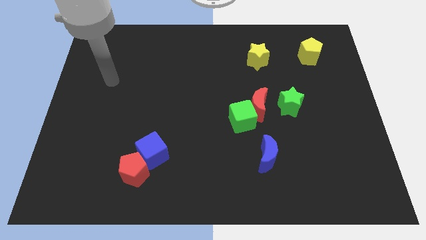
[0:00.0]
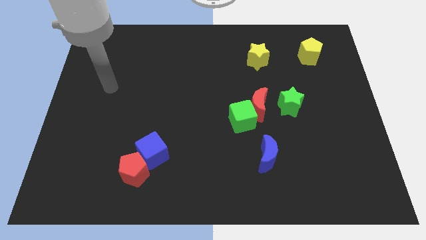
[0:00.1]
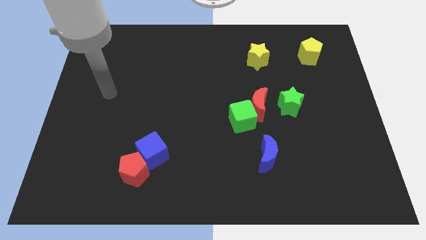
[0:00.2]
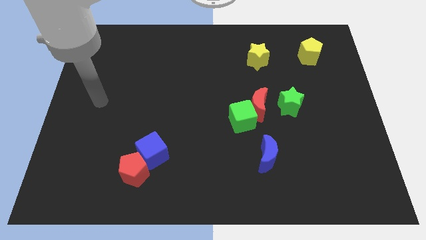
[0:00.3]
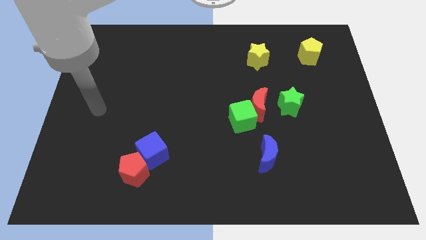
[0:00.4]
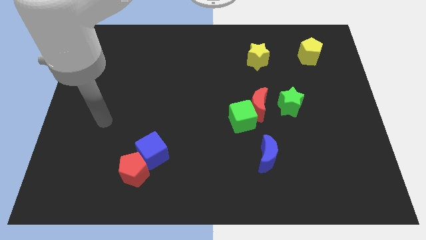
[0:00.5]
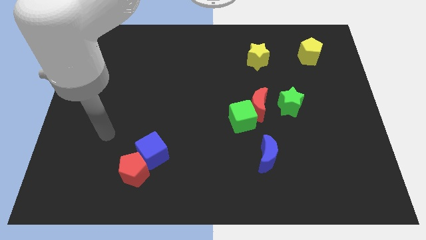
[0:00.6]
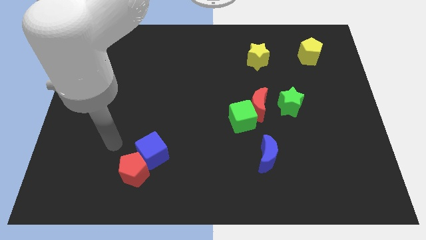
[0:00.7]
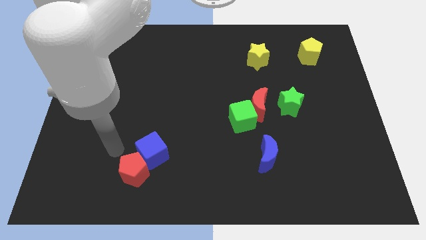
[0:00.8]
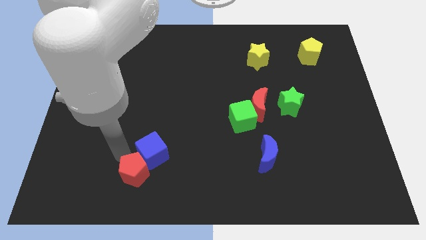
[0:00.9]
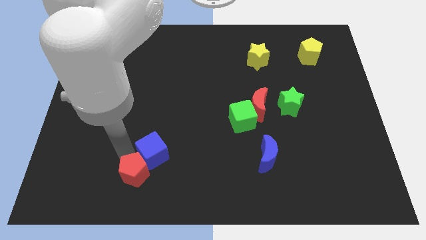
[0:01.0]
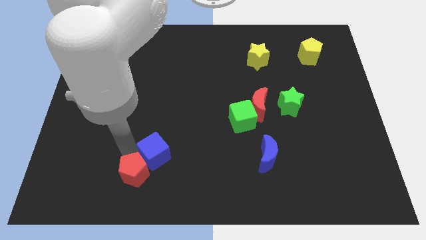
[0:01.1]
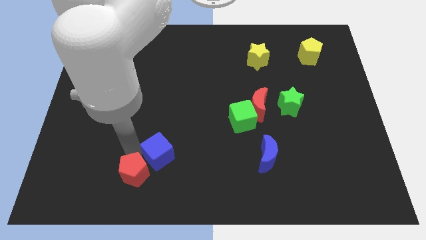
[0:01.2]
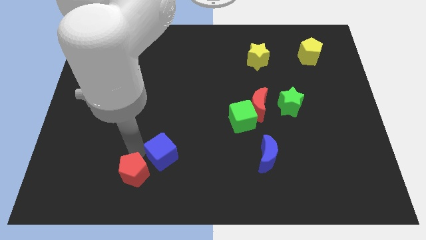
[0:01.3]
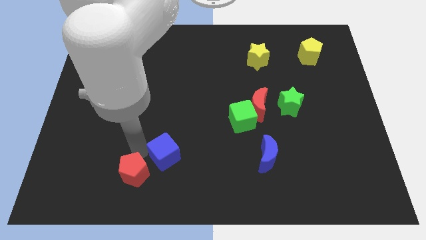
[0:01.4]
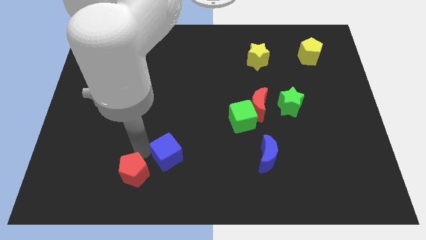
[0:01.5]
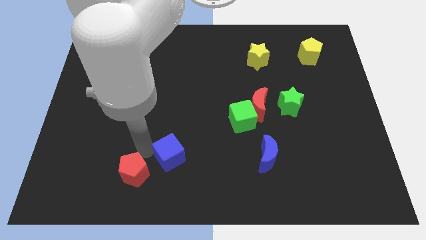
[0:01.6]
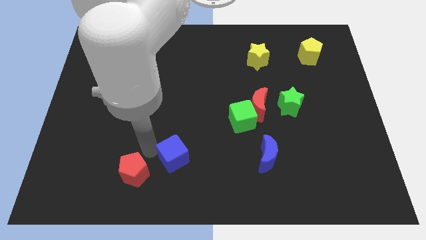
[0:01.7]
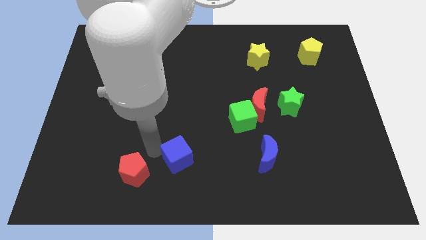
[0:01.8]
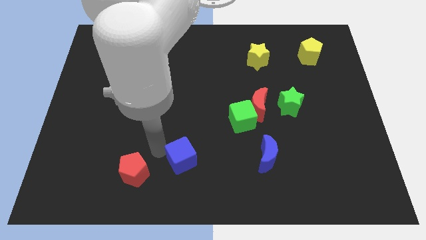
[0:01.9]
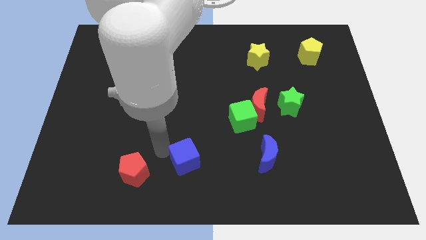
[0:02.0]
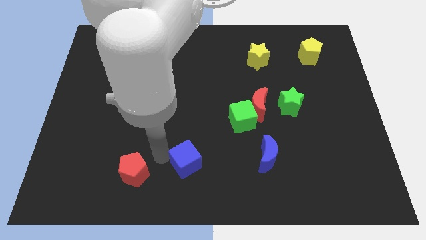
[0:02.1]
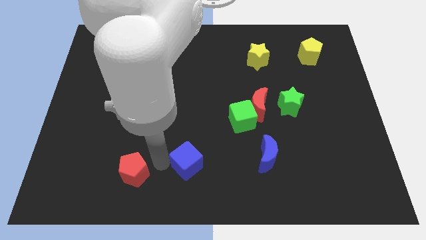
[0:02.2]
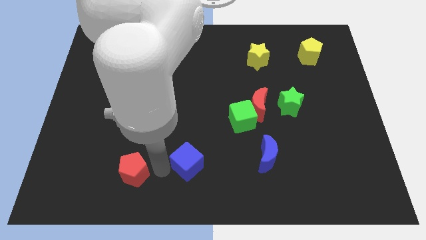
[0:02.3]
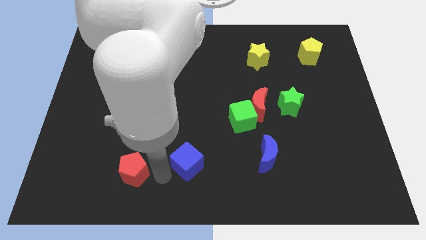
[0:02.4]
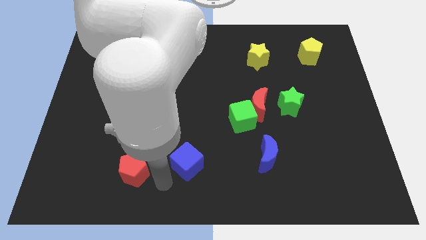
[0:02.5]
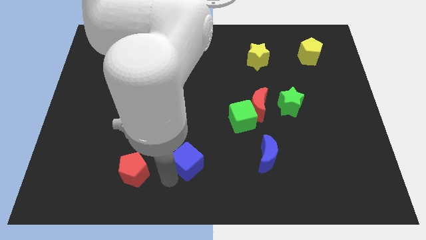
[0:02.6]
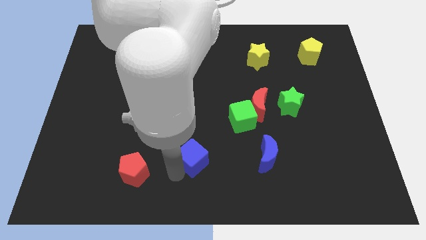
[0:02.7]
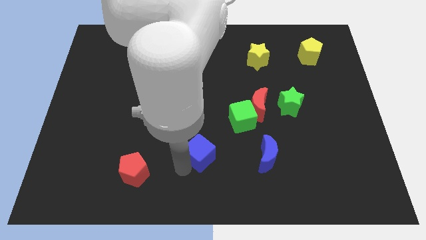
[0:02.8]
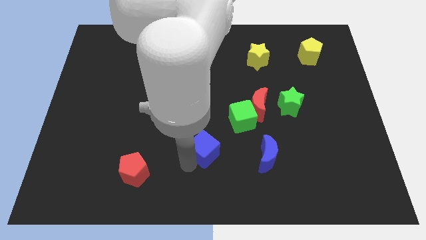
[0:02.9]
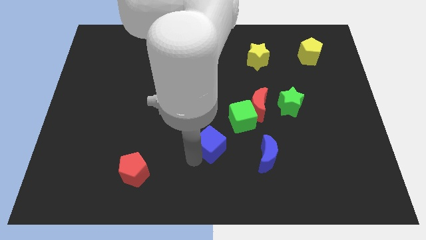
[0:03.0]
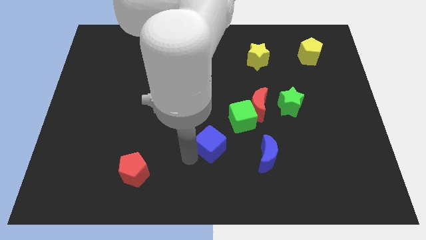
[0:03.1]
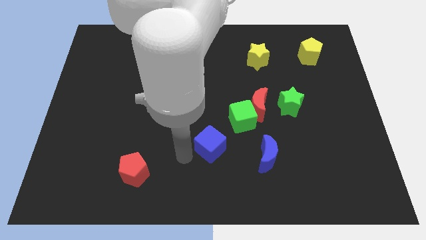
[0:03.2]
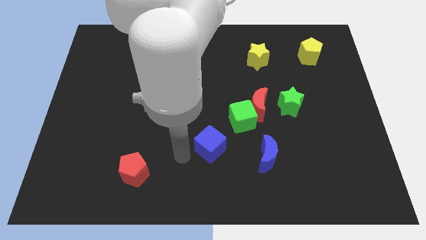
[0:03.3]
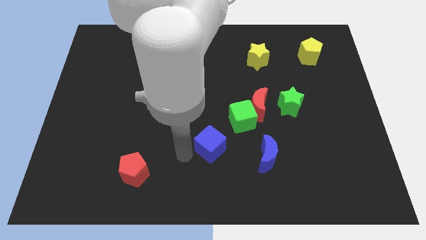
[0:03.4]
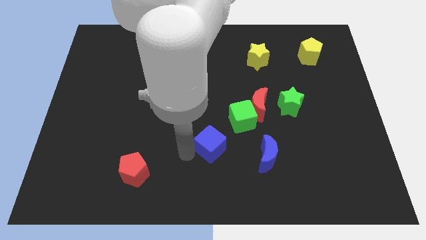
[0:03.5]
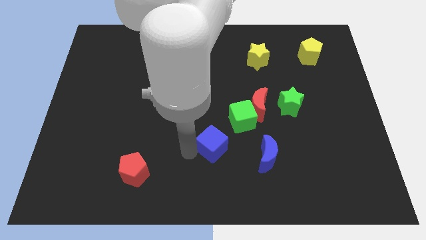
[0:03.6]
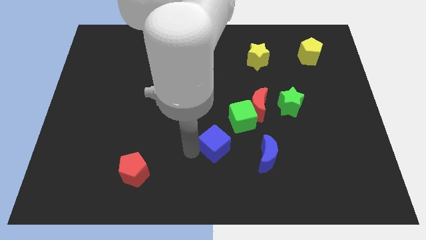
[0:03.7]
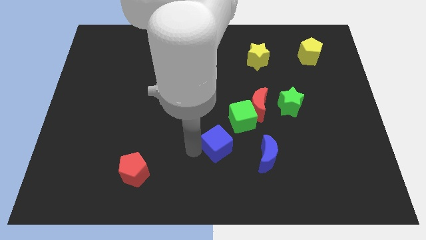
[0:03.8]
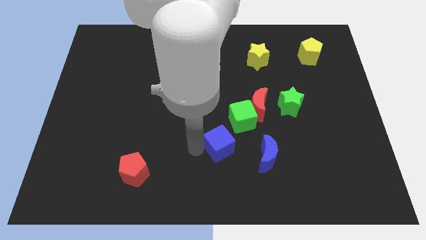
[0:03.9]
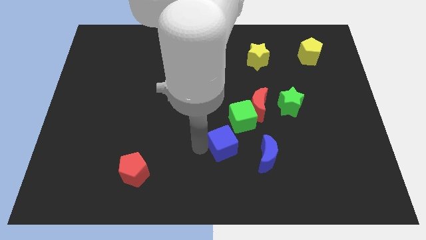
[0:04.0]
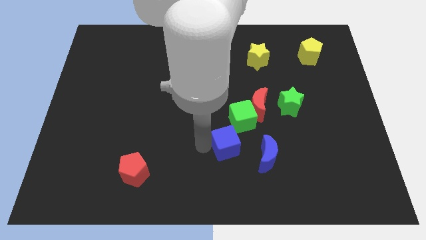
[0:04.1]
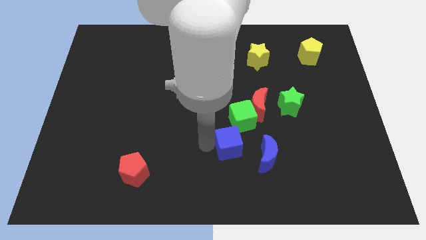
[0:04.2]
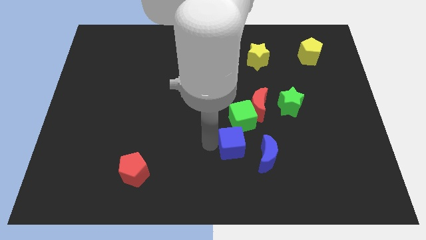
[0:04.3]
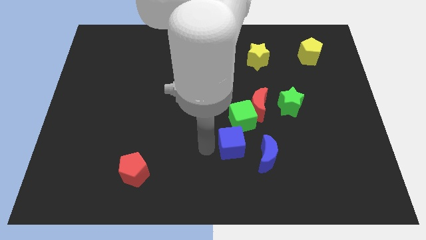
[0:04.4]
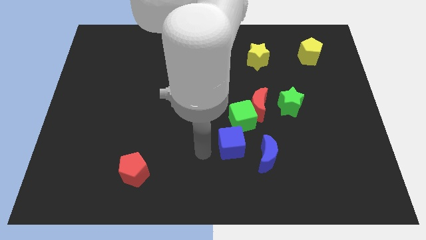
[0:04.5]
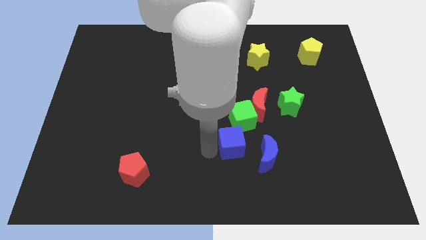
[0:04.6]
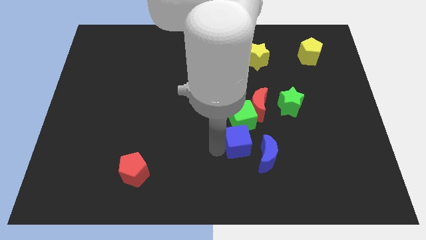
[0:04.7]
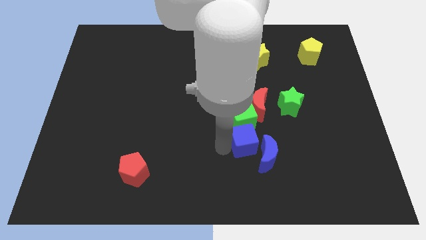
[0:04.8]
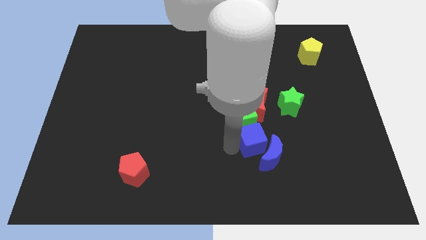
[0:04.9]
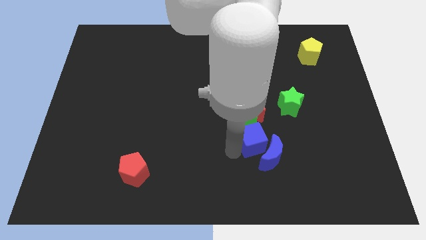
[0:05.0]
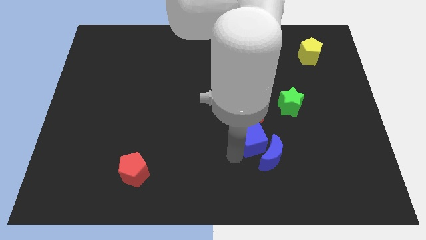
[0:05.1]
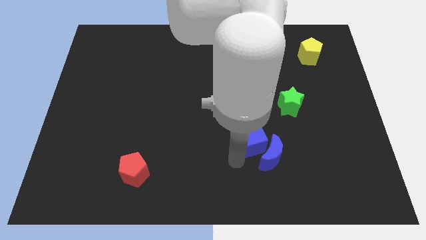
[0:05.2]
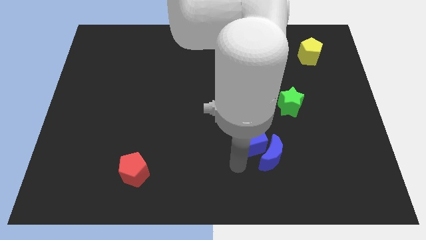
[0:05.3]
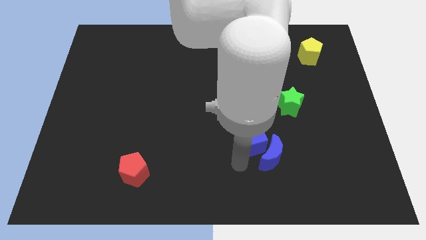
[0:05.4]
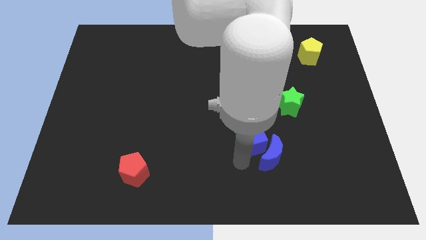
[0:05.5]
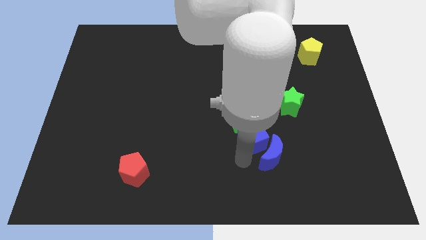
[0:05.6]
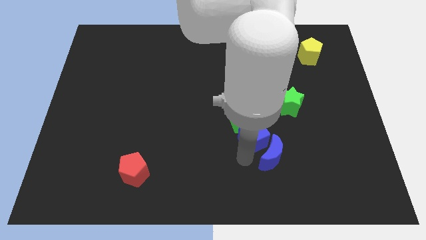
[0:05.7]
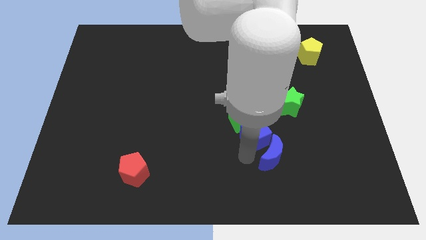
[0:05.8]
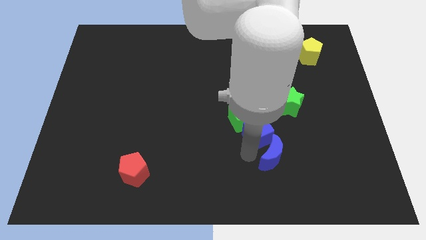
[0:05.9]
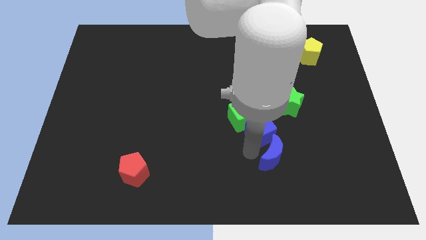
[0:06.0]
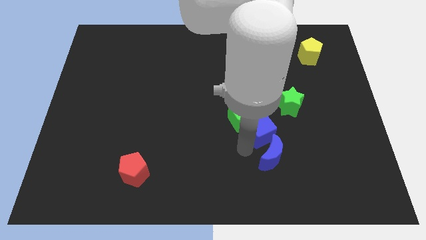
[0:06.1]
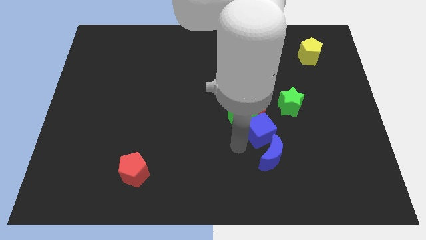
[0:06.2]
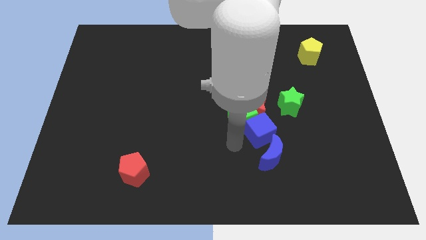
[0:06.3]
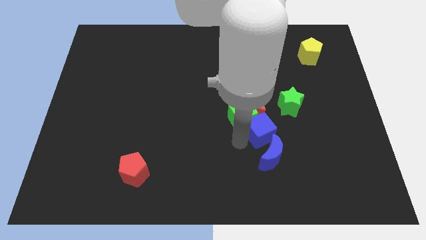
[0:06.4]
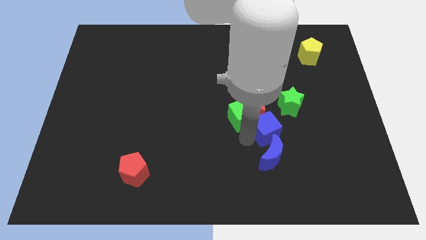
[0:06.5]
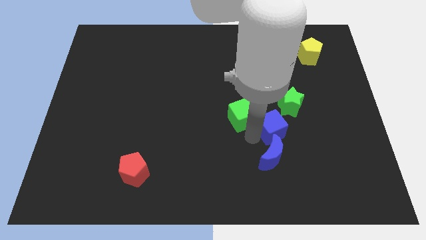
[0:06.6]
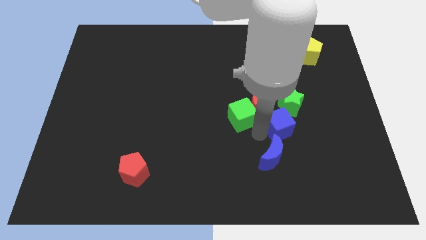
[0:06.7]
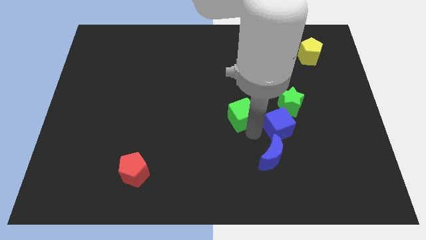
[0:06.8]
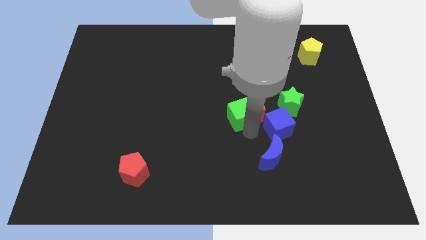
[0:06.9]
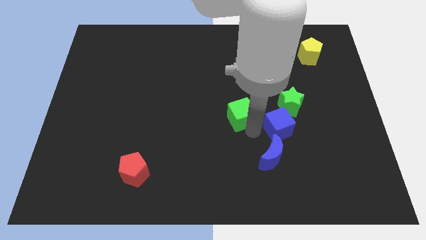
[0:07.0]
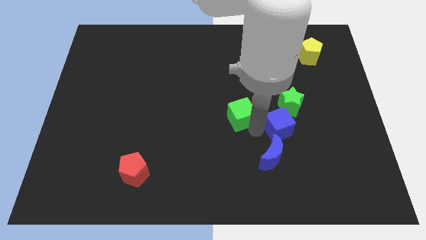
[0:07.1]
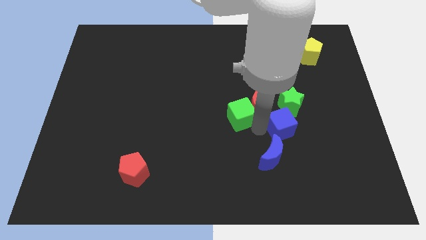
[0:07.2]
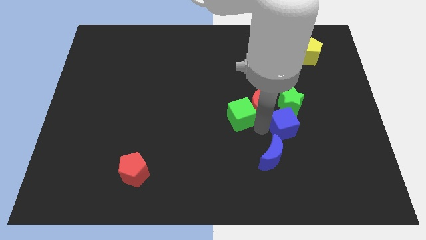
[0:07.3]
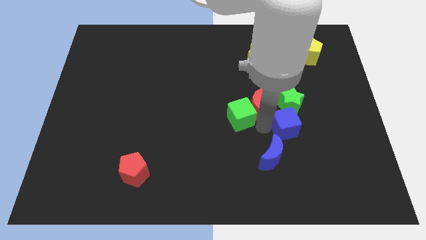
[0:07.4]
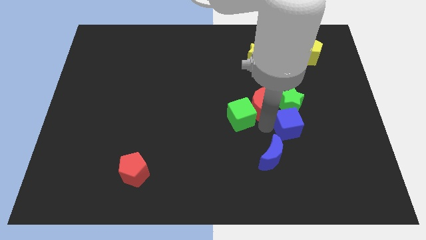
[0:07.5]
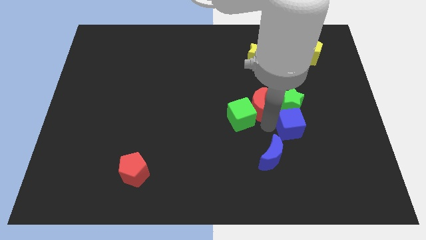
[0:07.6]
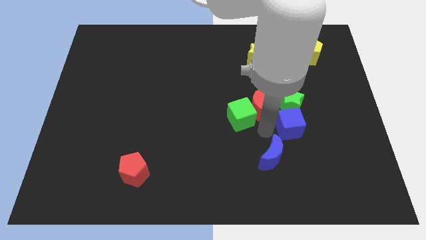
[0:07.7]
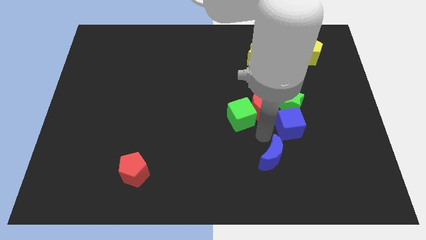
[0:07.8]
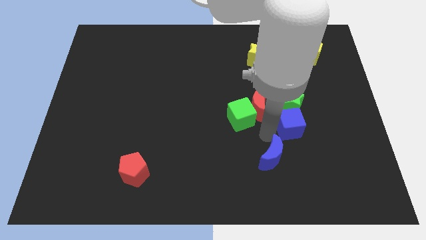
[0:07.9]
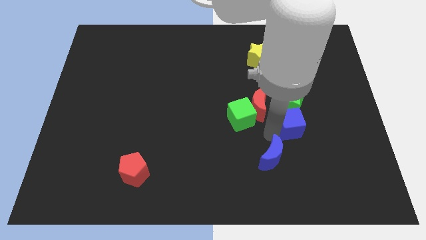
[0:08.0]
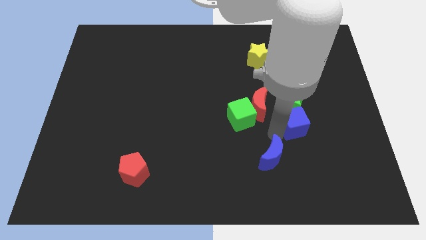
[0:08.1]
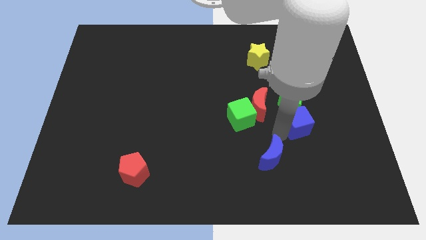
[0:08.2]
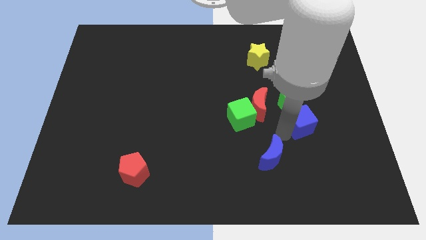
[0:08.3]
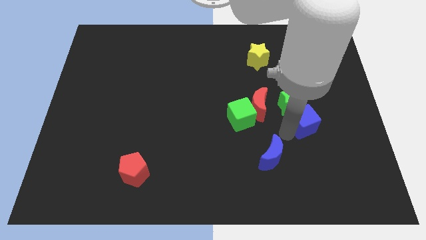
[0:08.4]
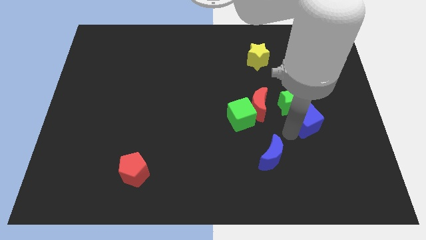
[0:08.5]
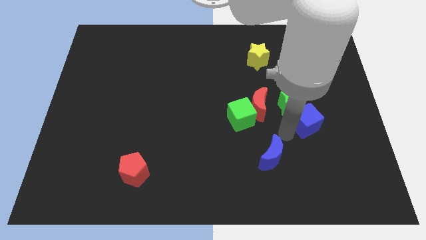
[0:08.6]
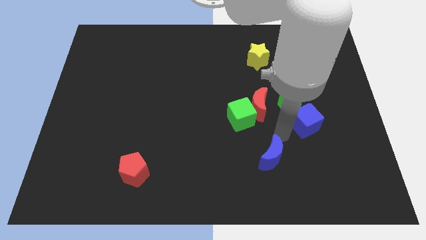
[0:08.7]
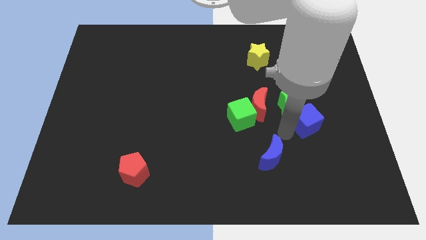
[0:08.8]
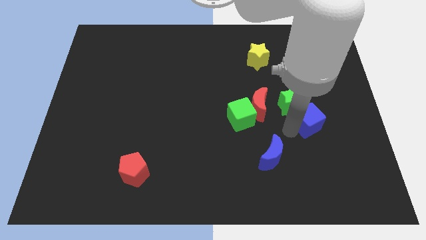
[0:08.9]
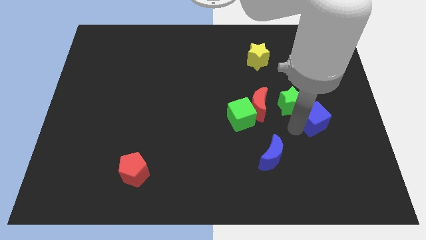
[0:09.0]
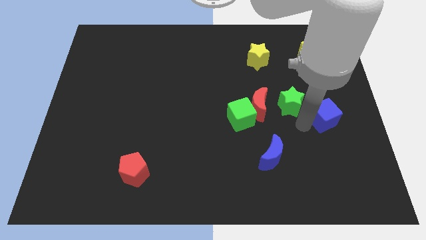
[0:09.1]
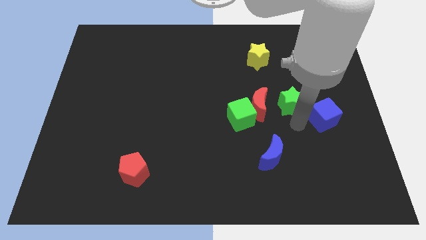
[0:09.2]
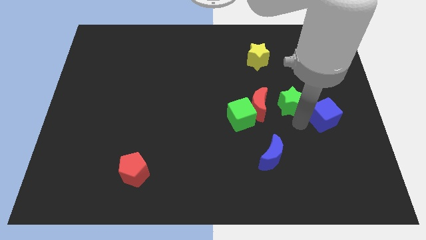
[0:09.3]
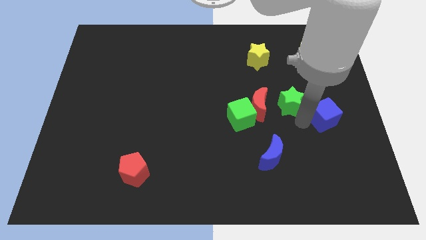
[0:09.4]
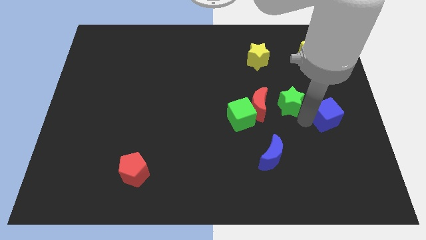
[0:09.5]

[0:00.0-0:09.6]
push the blue cube to the center right
